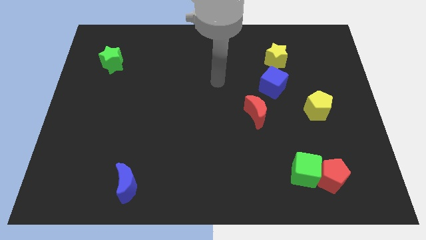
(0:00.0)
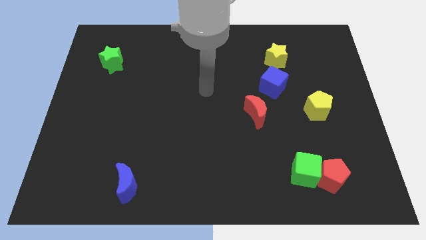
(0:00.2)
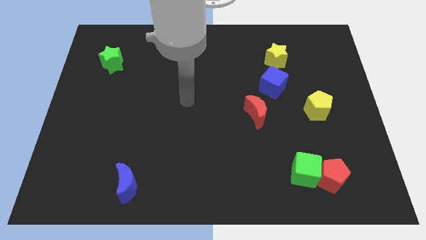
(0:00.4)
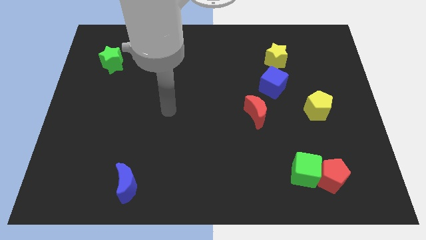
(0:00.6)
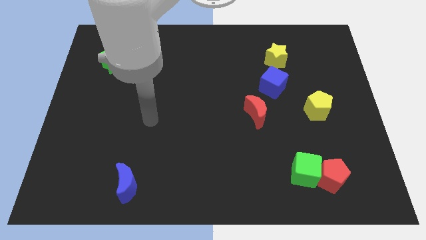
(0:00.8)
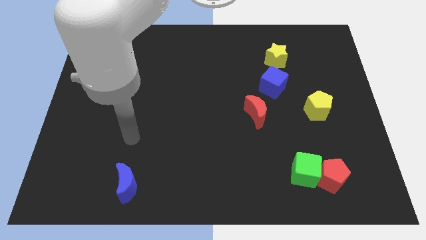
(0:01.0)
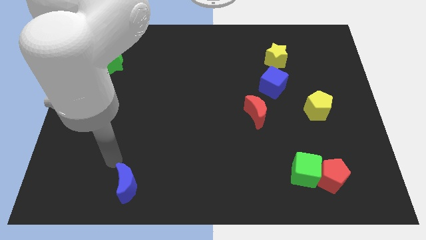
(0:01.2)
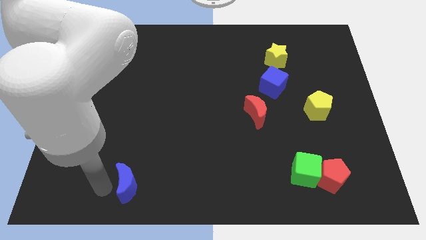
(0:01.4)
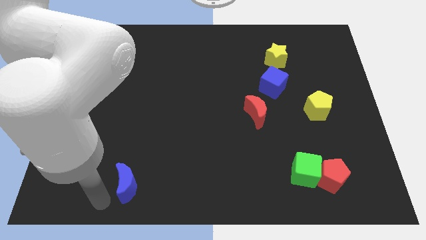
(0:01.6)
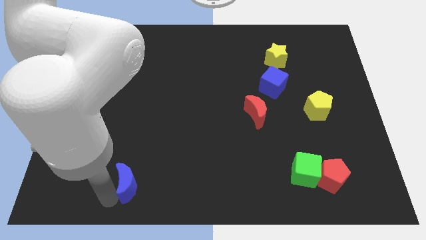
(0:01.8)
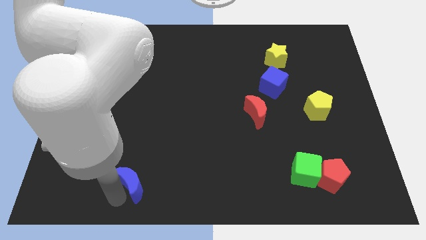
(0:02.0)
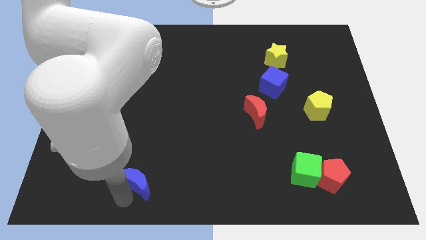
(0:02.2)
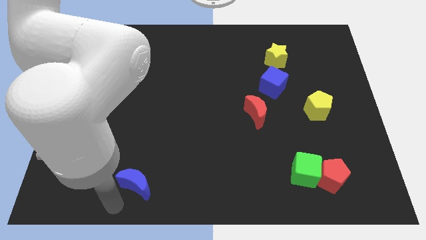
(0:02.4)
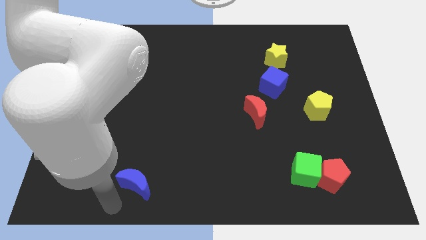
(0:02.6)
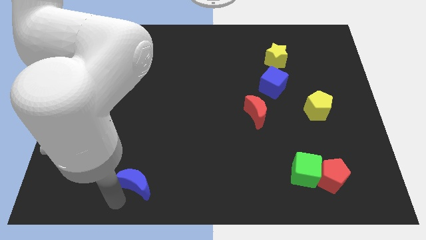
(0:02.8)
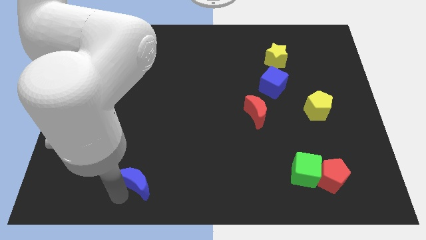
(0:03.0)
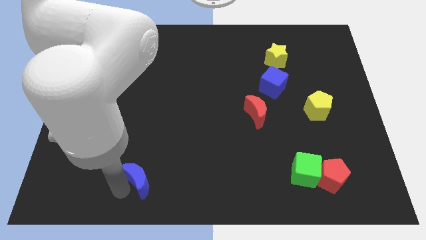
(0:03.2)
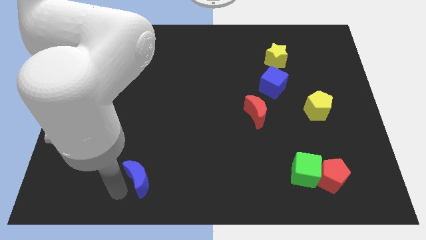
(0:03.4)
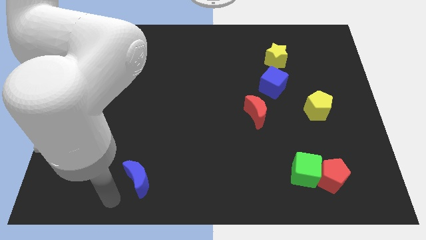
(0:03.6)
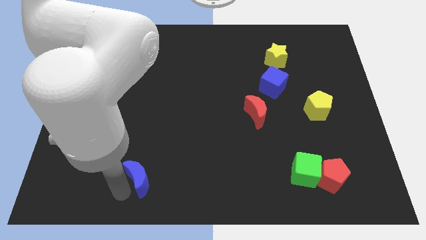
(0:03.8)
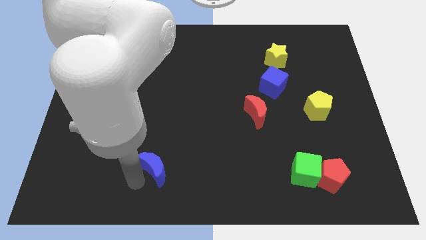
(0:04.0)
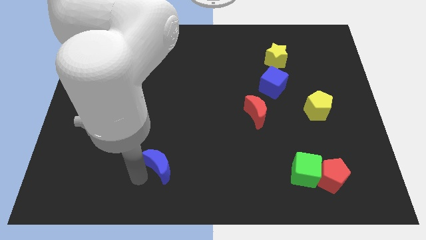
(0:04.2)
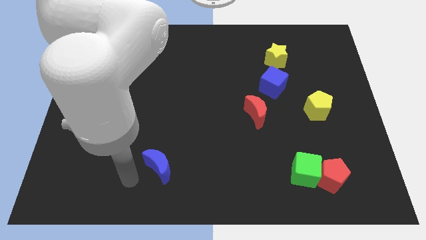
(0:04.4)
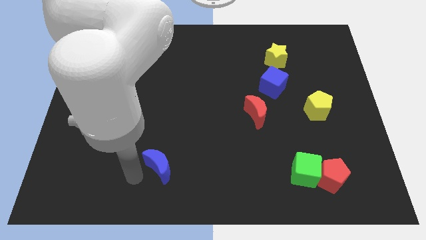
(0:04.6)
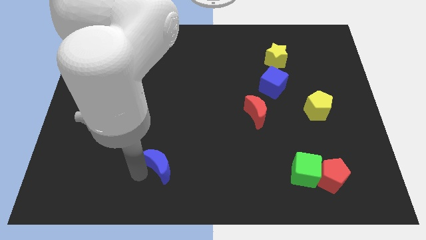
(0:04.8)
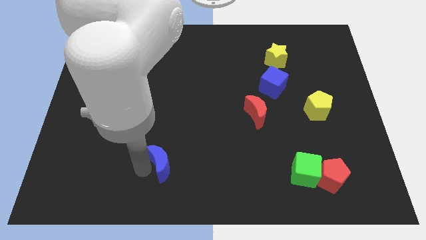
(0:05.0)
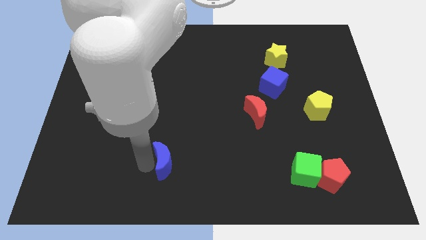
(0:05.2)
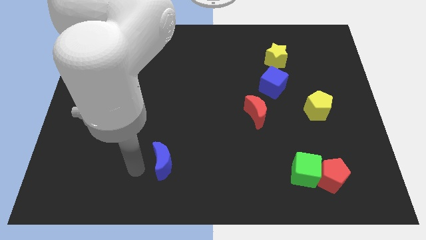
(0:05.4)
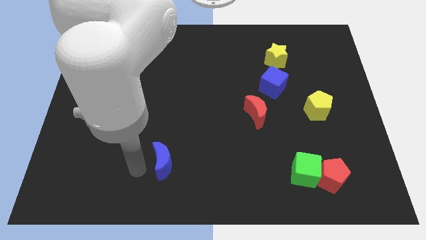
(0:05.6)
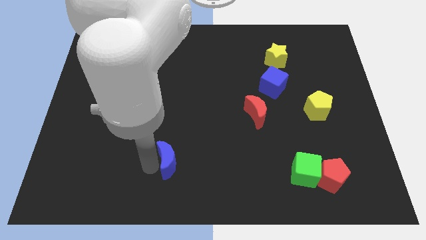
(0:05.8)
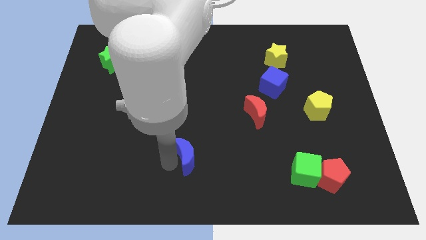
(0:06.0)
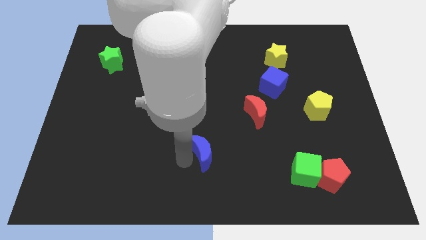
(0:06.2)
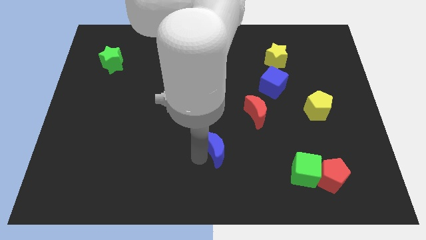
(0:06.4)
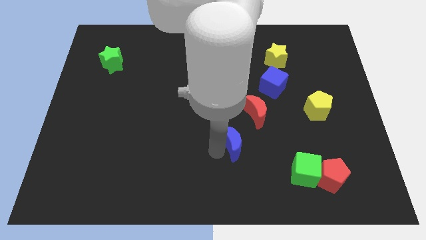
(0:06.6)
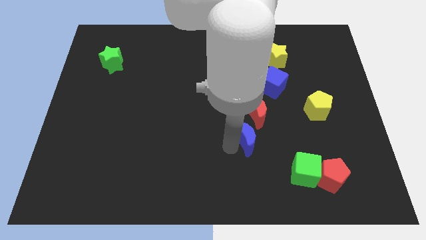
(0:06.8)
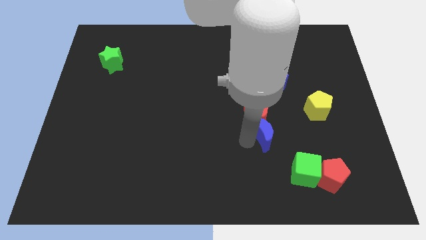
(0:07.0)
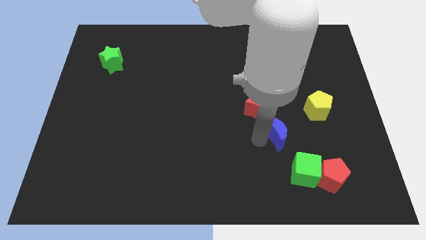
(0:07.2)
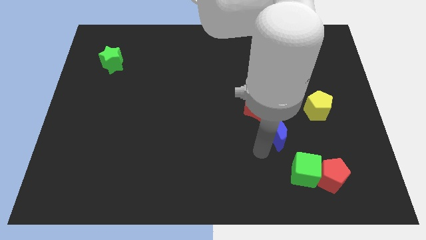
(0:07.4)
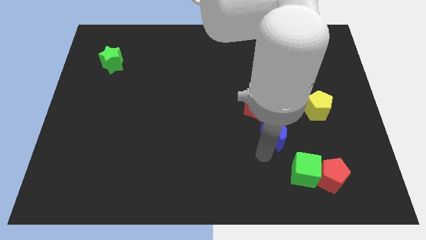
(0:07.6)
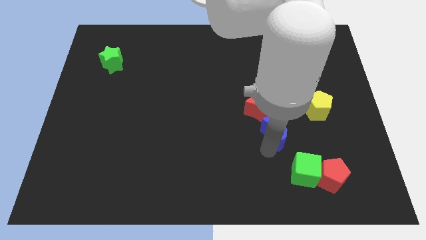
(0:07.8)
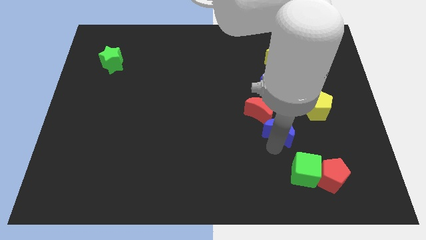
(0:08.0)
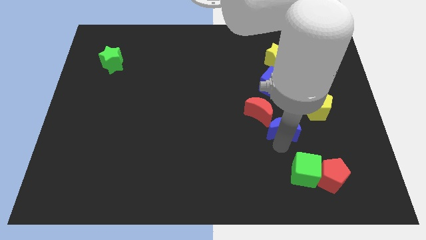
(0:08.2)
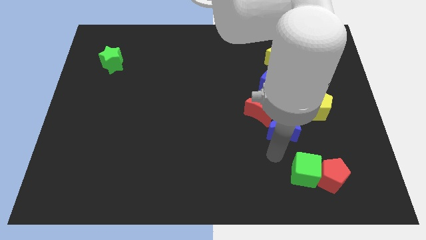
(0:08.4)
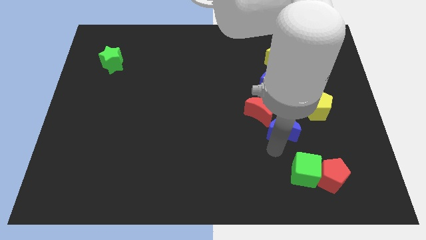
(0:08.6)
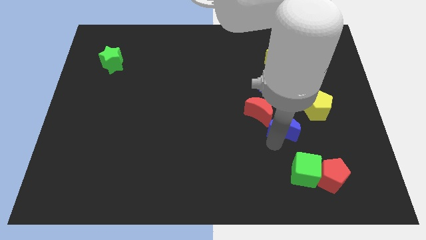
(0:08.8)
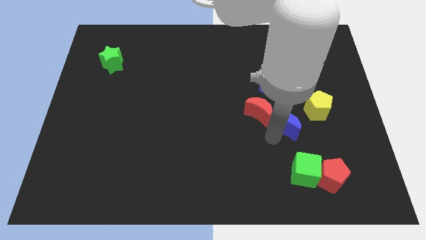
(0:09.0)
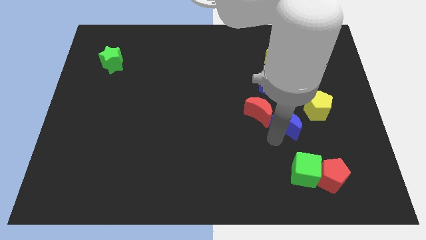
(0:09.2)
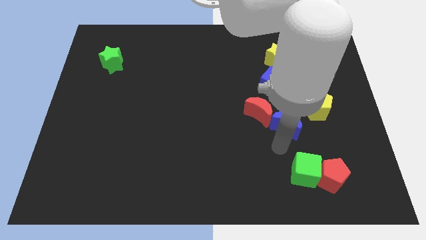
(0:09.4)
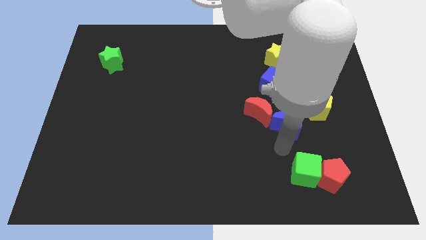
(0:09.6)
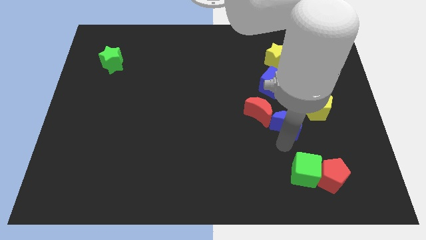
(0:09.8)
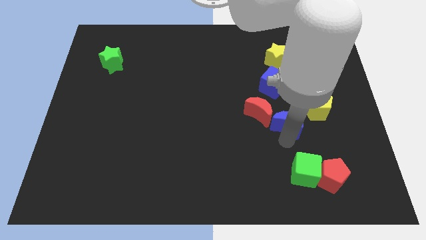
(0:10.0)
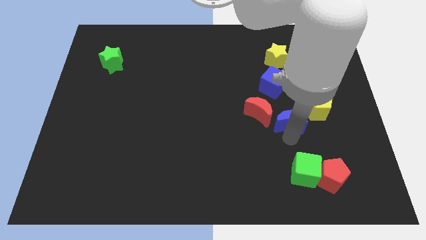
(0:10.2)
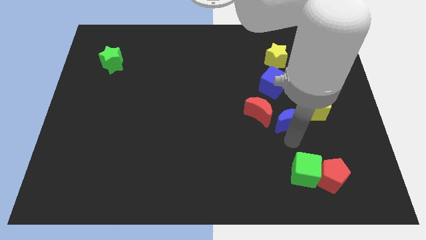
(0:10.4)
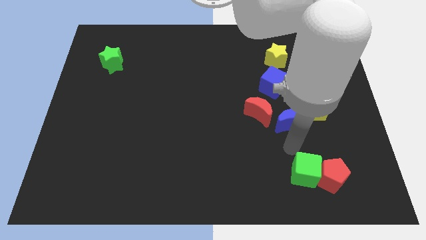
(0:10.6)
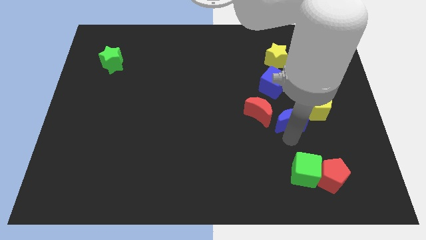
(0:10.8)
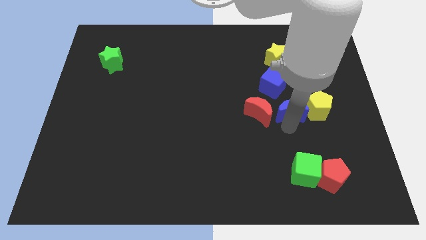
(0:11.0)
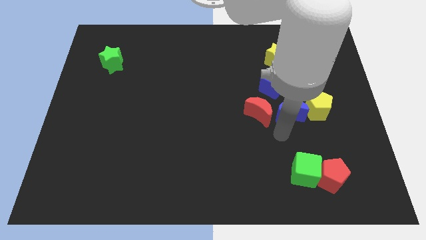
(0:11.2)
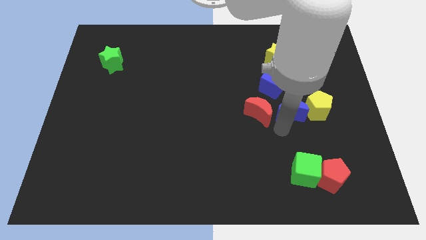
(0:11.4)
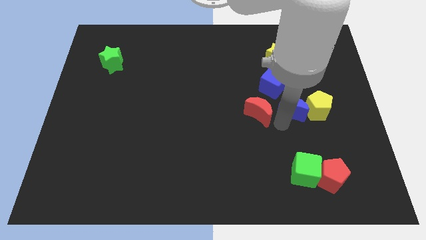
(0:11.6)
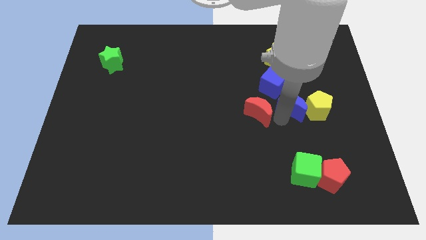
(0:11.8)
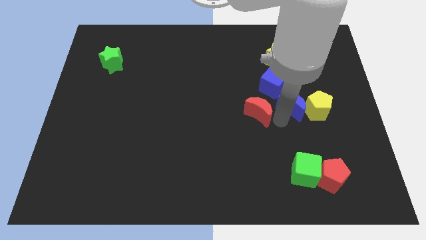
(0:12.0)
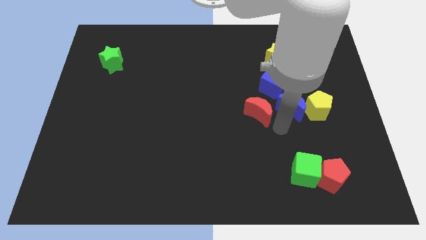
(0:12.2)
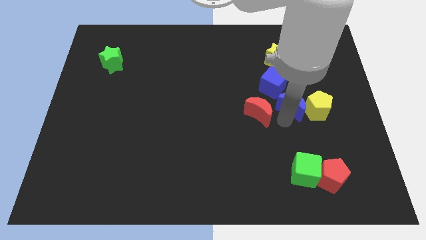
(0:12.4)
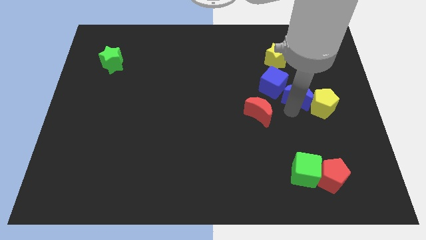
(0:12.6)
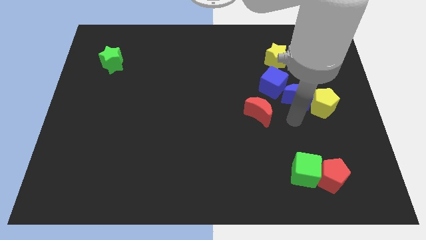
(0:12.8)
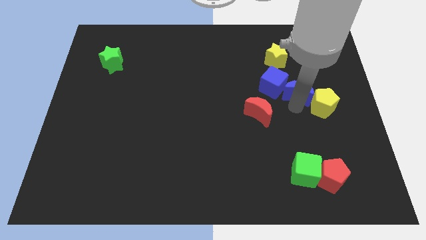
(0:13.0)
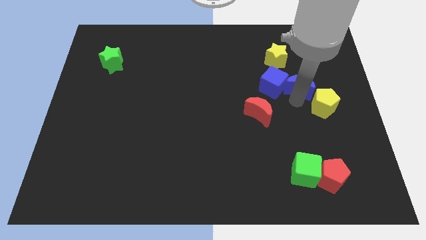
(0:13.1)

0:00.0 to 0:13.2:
put the blue moon diagonally down and to the right of the yellow star

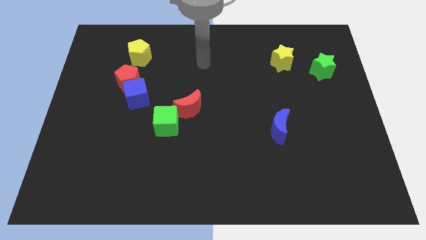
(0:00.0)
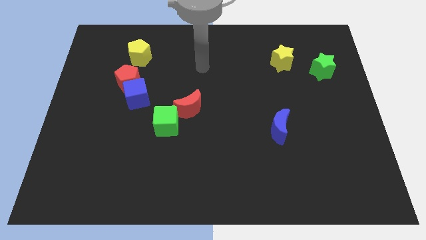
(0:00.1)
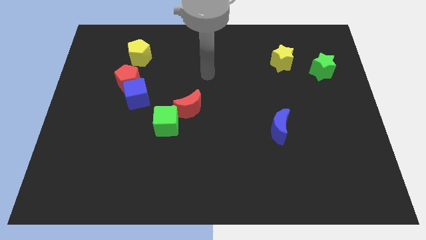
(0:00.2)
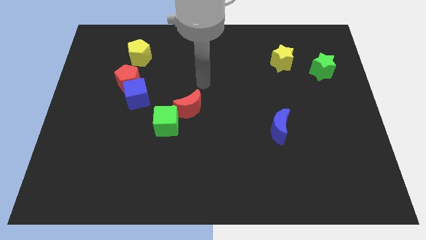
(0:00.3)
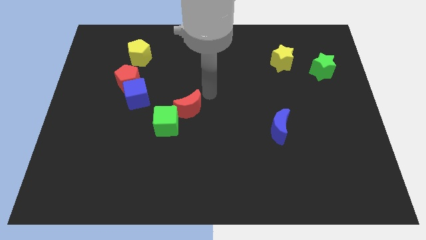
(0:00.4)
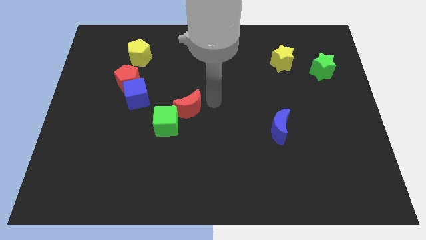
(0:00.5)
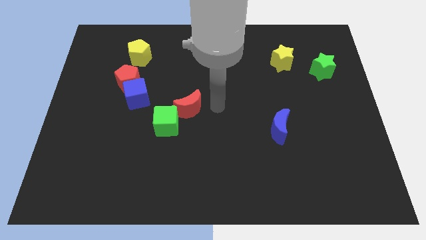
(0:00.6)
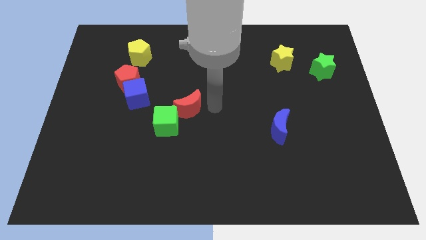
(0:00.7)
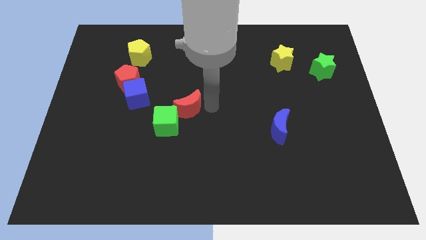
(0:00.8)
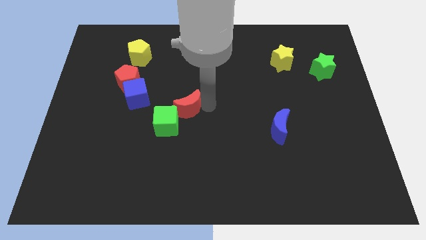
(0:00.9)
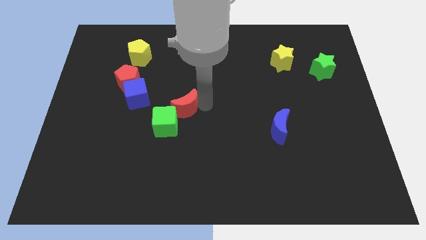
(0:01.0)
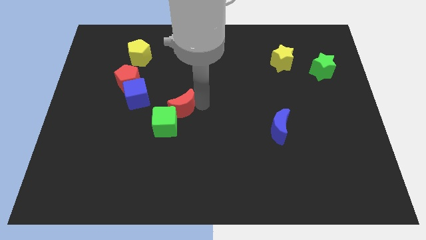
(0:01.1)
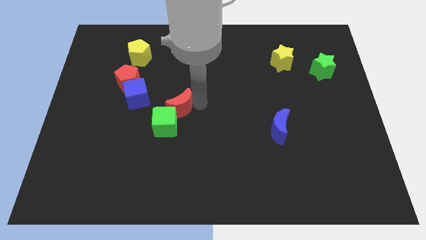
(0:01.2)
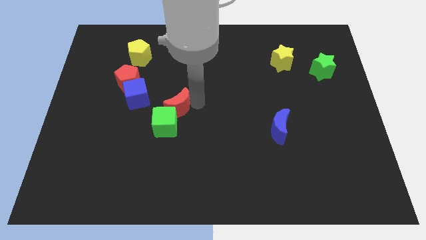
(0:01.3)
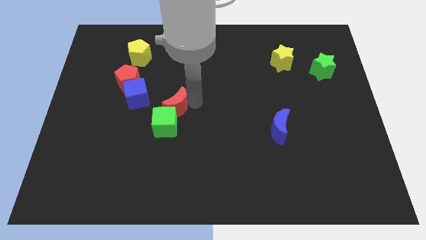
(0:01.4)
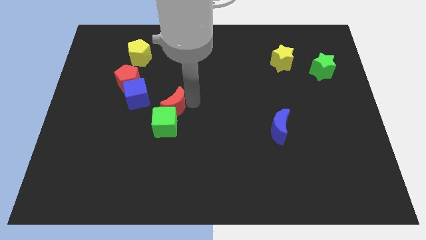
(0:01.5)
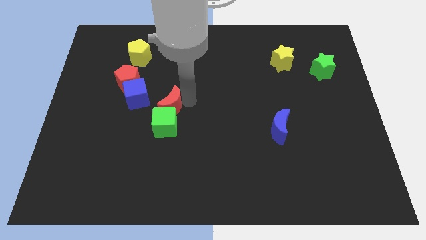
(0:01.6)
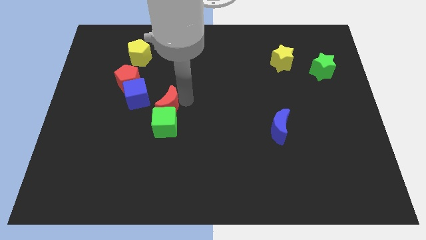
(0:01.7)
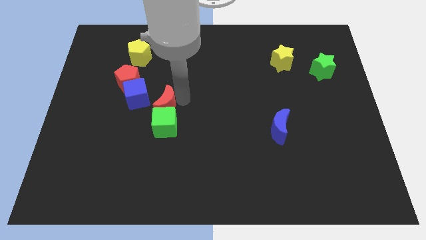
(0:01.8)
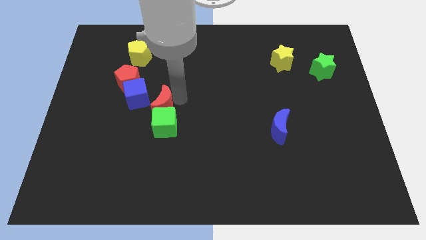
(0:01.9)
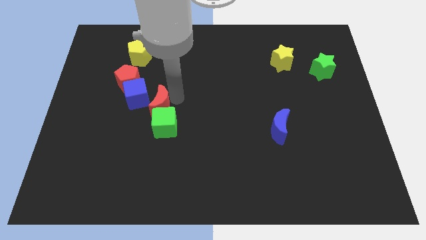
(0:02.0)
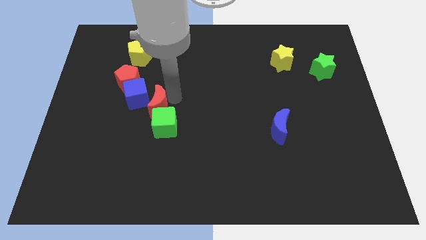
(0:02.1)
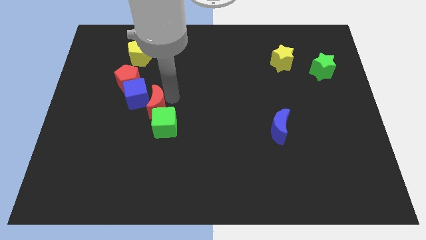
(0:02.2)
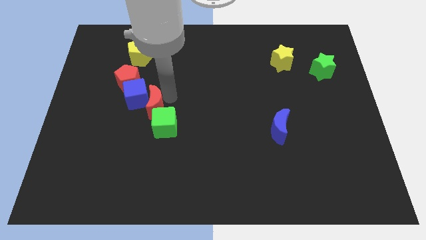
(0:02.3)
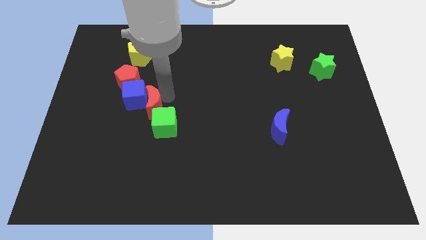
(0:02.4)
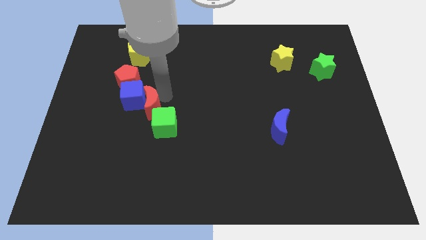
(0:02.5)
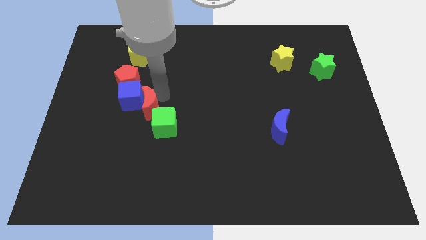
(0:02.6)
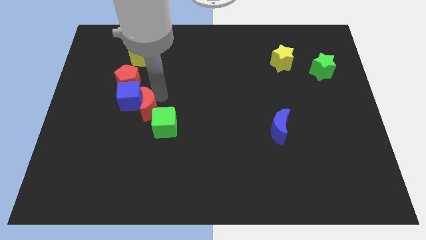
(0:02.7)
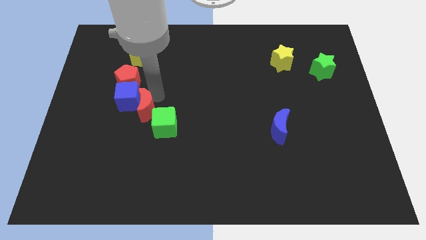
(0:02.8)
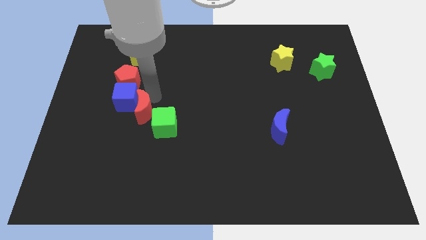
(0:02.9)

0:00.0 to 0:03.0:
put the red moon below the red pentagon
